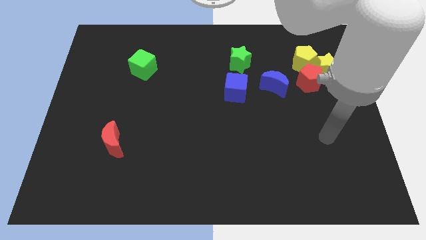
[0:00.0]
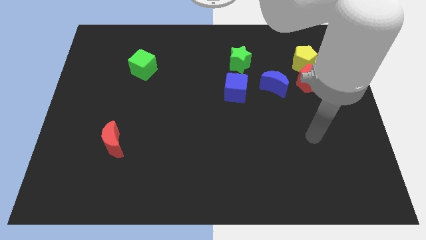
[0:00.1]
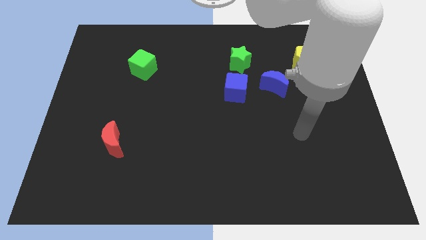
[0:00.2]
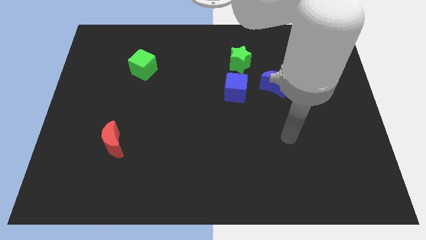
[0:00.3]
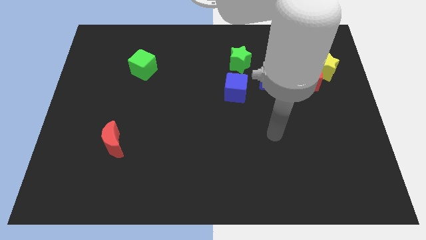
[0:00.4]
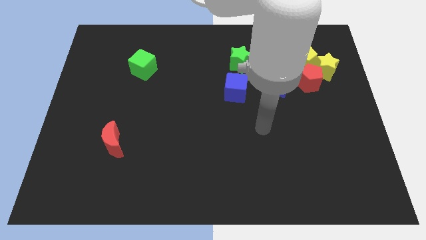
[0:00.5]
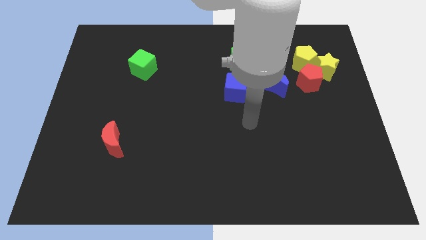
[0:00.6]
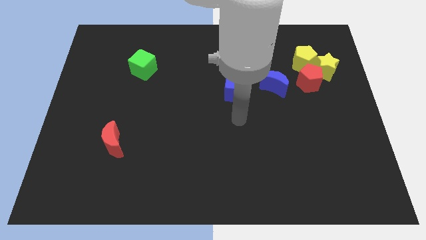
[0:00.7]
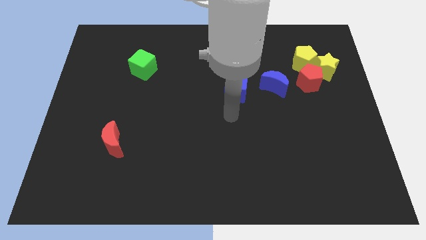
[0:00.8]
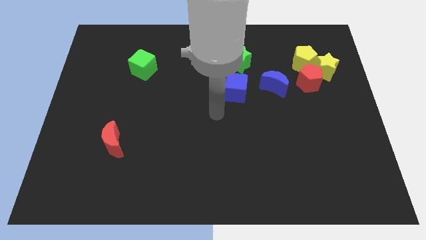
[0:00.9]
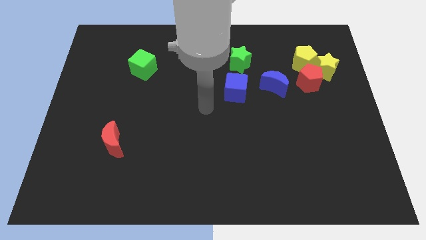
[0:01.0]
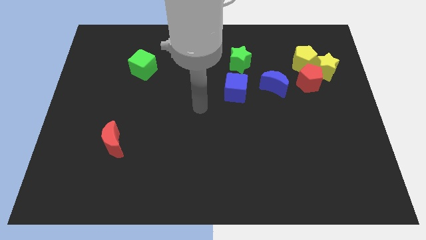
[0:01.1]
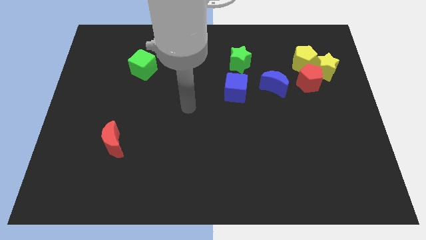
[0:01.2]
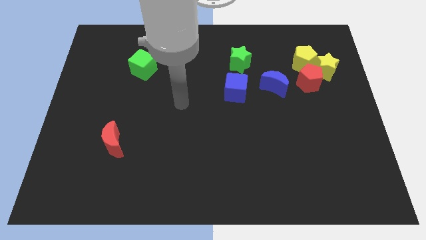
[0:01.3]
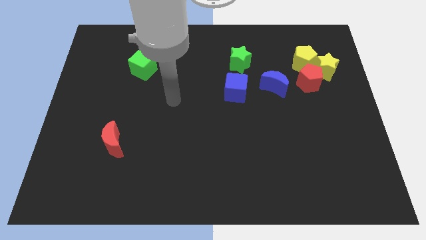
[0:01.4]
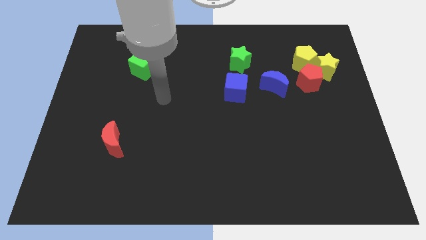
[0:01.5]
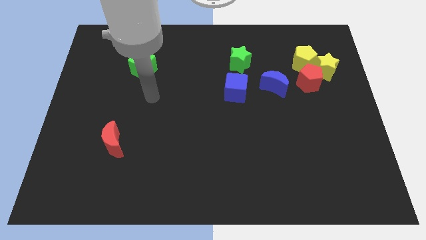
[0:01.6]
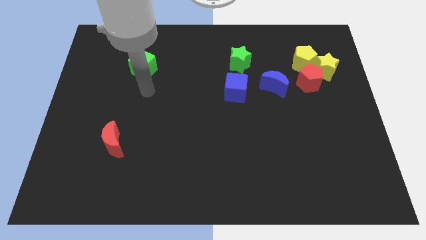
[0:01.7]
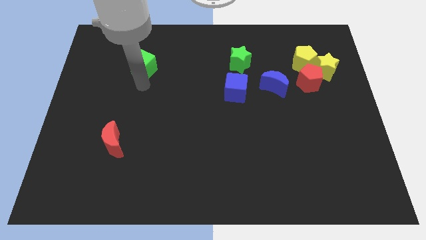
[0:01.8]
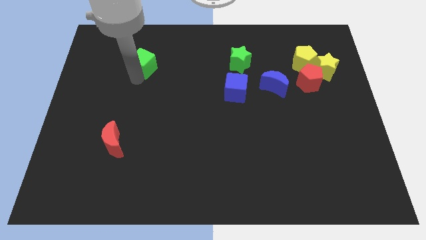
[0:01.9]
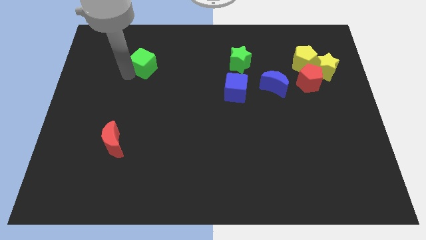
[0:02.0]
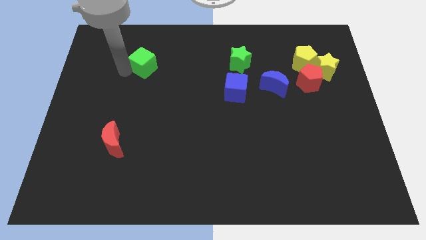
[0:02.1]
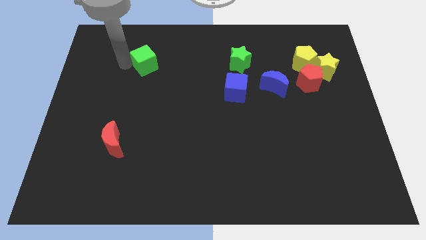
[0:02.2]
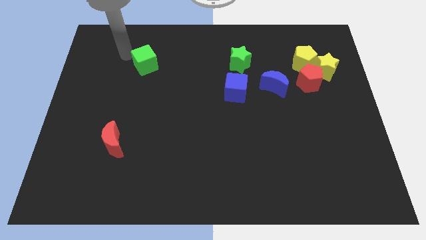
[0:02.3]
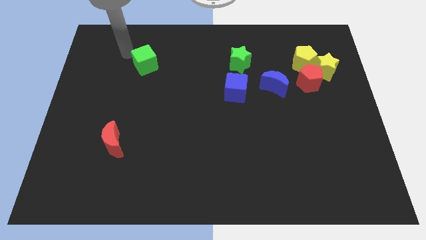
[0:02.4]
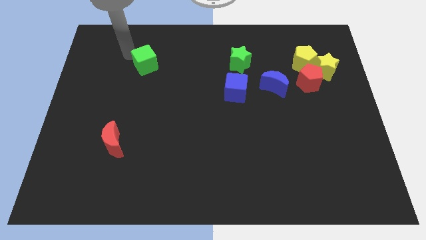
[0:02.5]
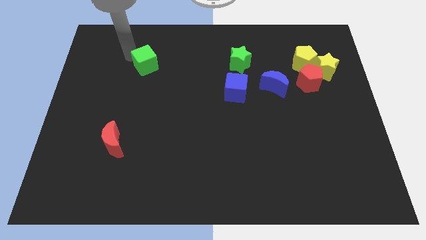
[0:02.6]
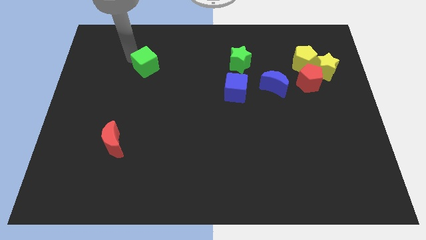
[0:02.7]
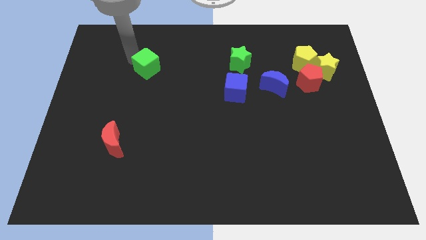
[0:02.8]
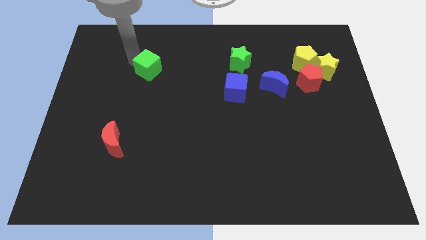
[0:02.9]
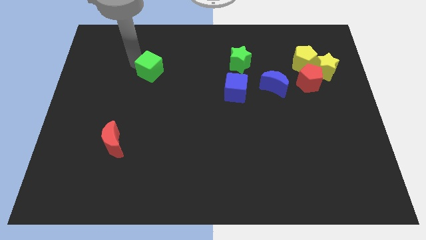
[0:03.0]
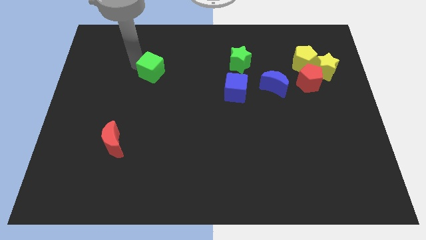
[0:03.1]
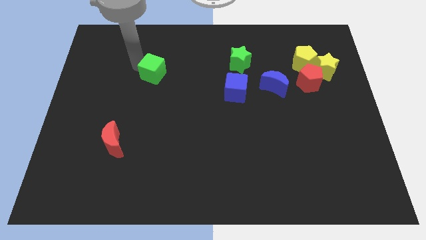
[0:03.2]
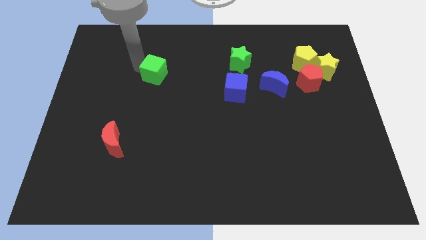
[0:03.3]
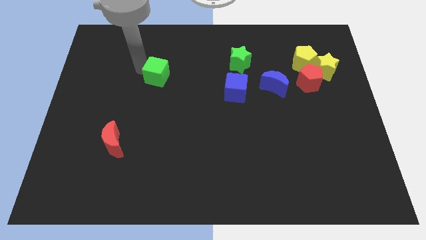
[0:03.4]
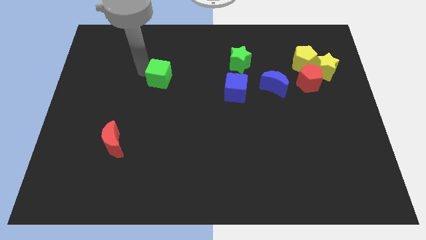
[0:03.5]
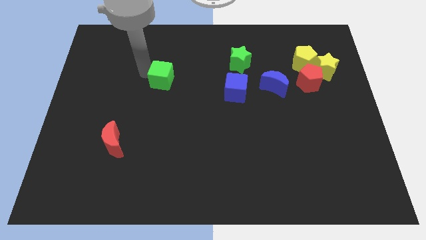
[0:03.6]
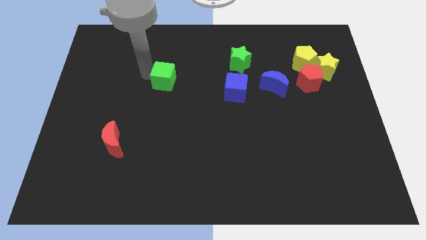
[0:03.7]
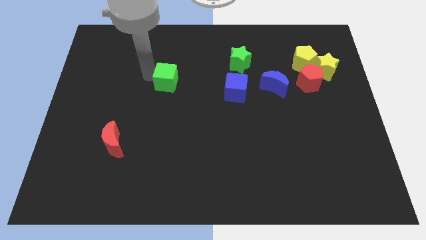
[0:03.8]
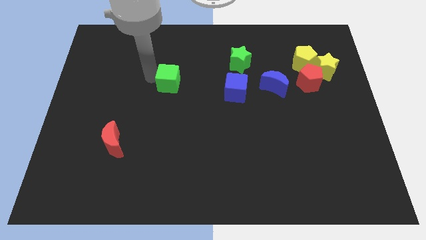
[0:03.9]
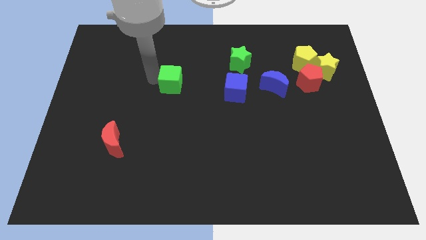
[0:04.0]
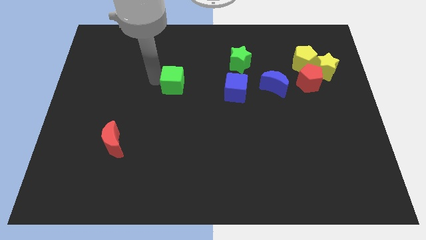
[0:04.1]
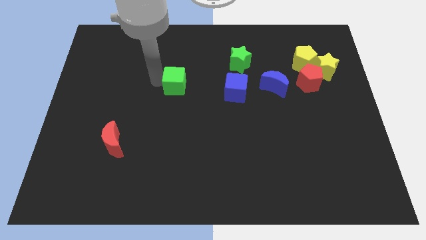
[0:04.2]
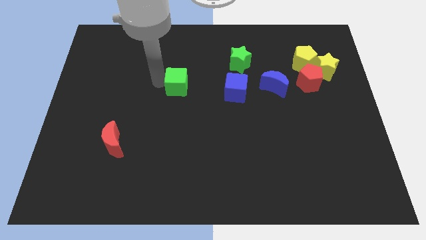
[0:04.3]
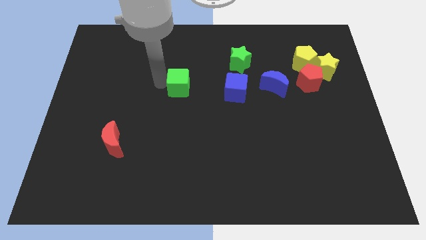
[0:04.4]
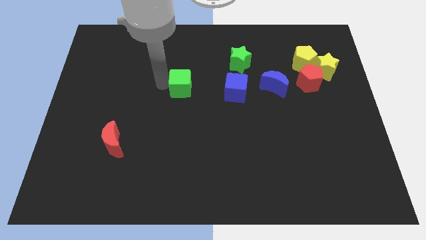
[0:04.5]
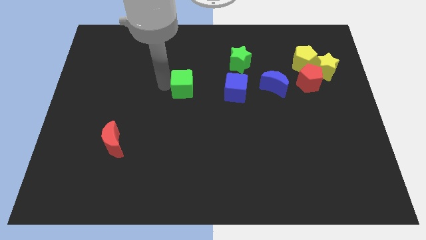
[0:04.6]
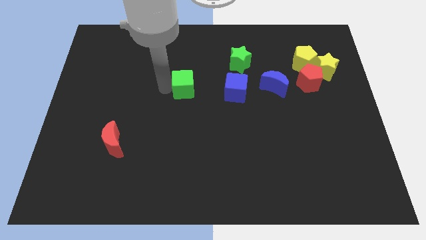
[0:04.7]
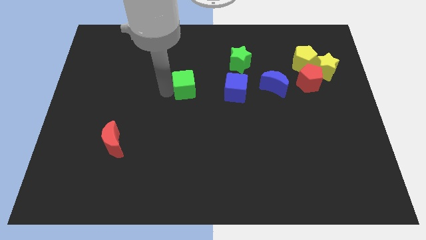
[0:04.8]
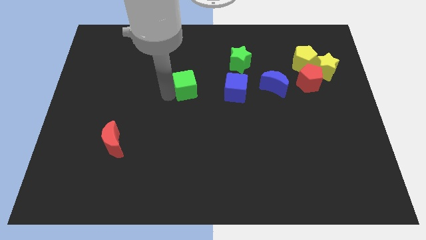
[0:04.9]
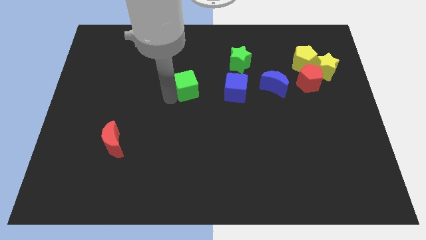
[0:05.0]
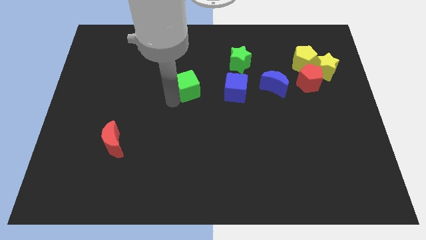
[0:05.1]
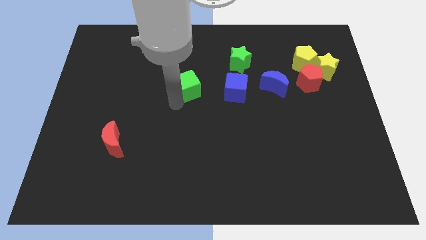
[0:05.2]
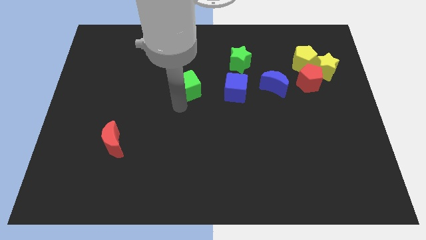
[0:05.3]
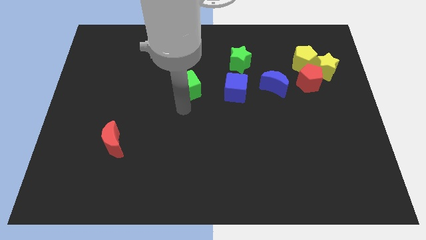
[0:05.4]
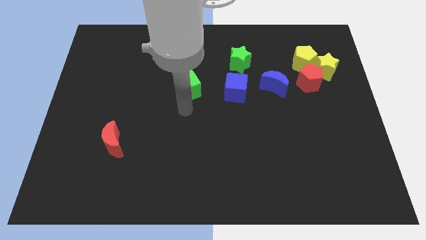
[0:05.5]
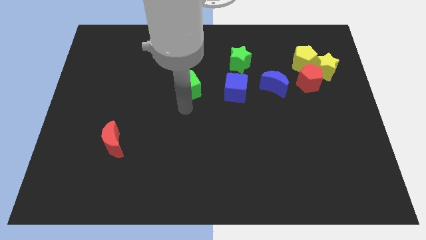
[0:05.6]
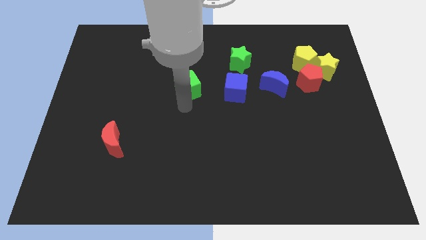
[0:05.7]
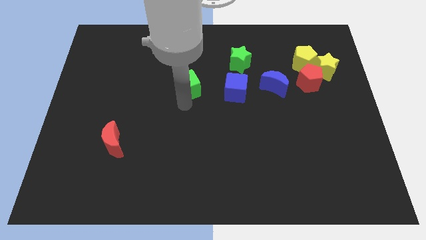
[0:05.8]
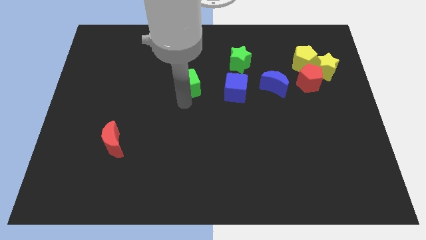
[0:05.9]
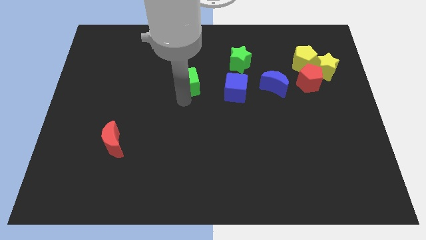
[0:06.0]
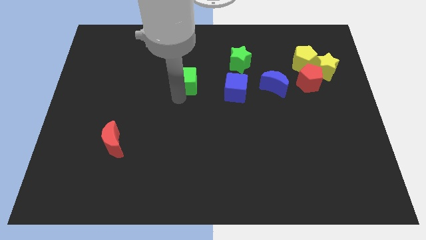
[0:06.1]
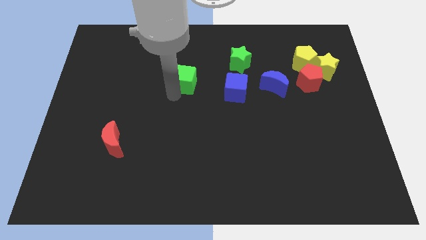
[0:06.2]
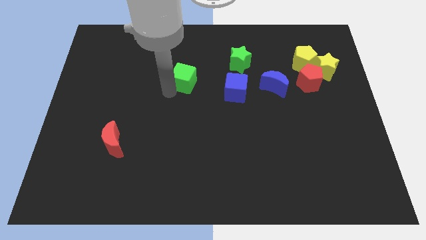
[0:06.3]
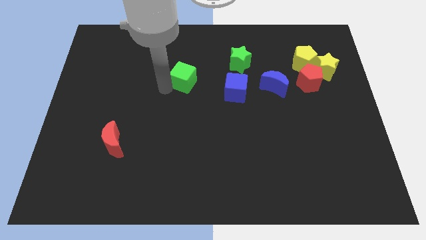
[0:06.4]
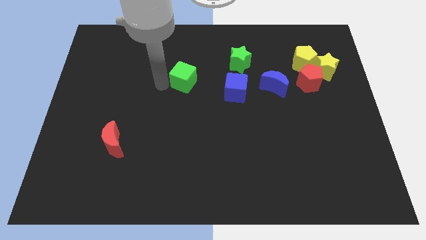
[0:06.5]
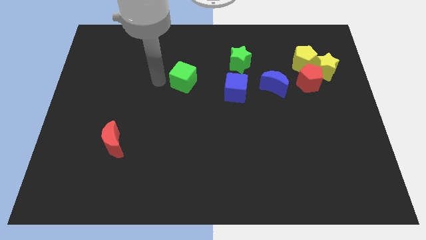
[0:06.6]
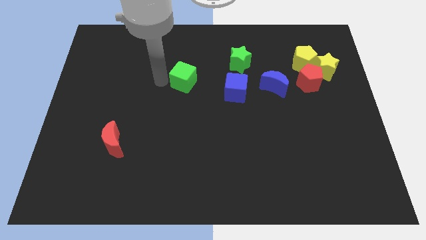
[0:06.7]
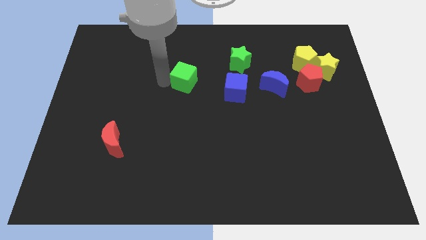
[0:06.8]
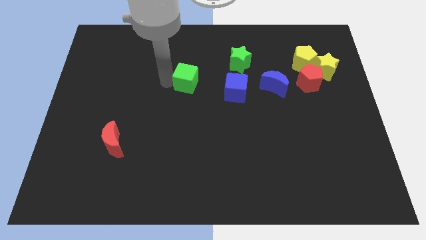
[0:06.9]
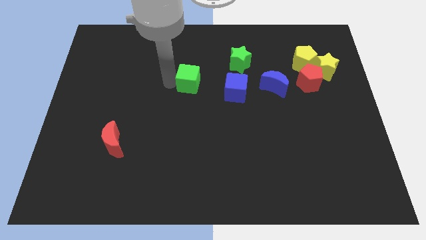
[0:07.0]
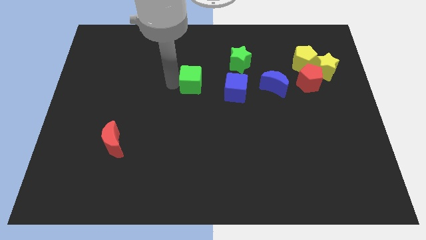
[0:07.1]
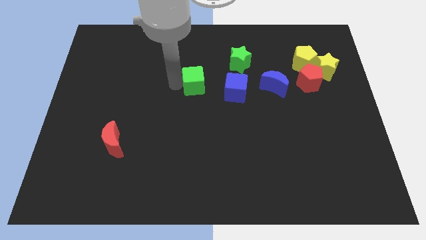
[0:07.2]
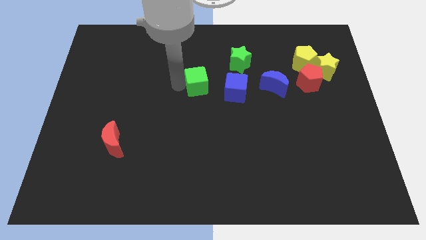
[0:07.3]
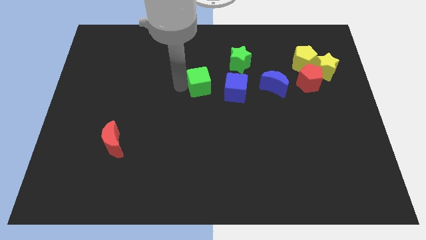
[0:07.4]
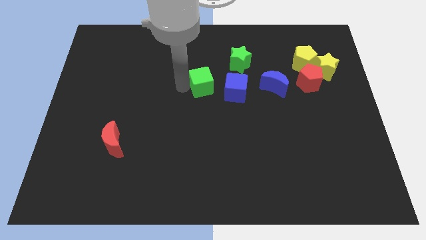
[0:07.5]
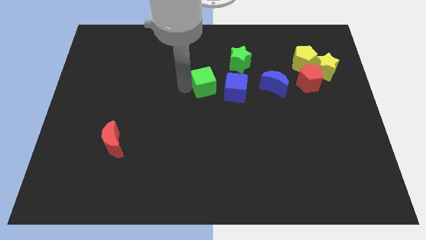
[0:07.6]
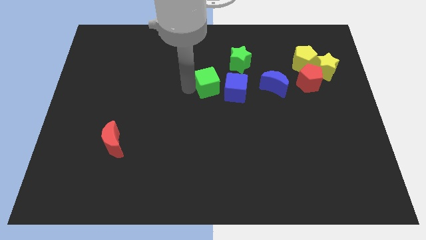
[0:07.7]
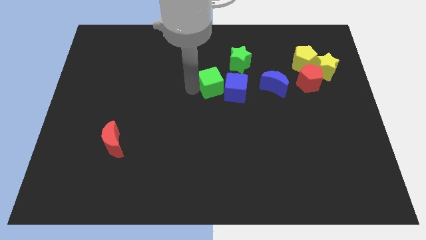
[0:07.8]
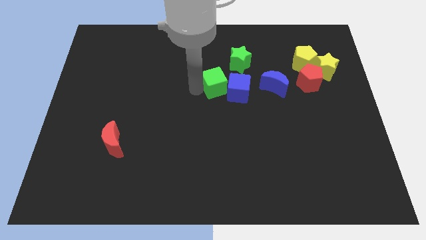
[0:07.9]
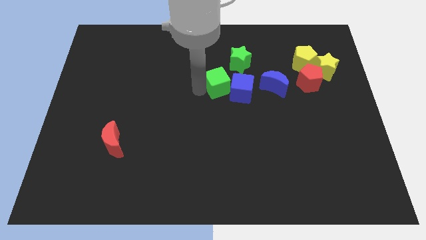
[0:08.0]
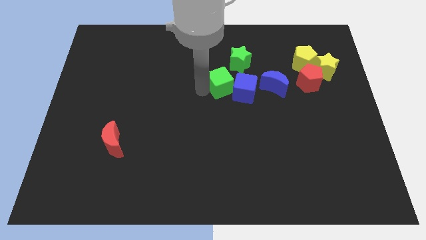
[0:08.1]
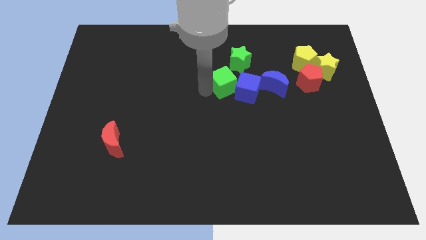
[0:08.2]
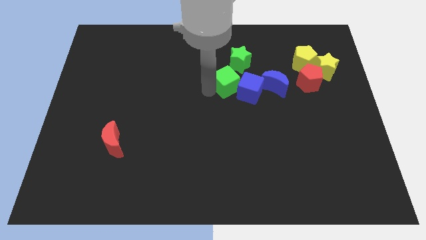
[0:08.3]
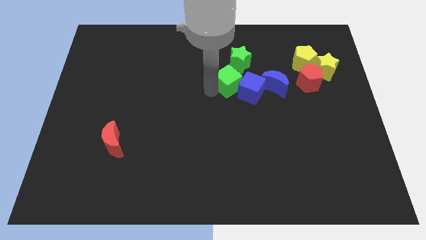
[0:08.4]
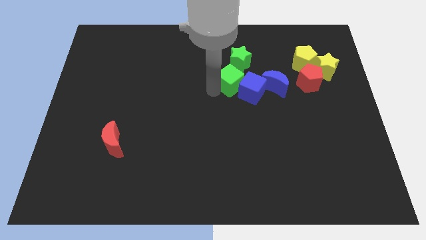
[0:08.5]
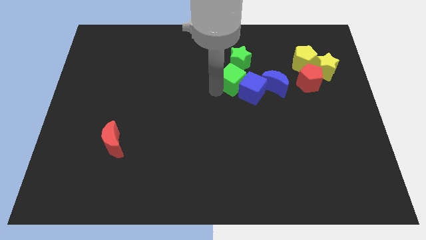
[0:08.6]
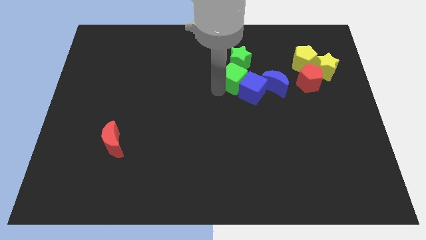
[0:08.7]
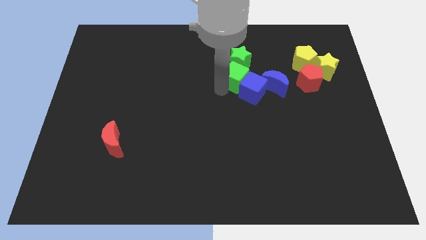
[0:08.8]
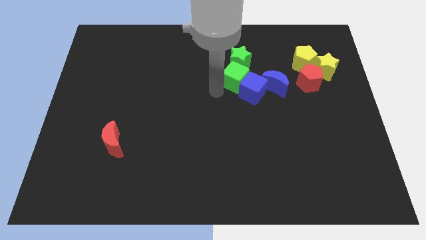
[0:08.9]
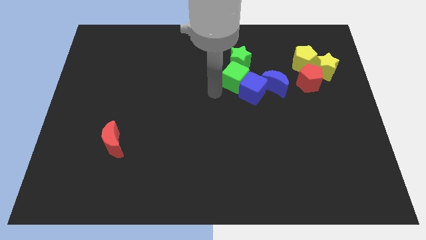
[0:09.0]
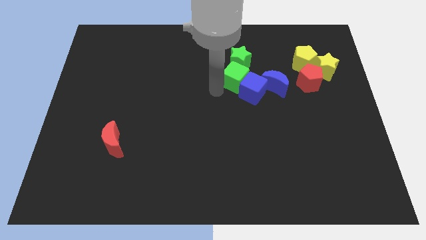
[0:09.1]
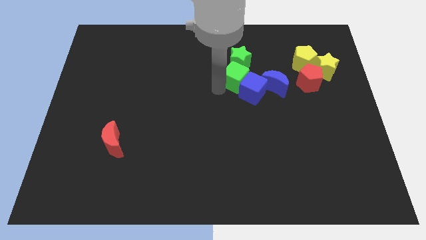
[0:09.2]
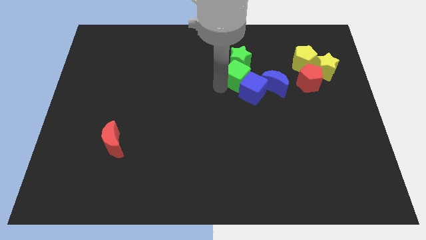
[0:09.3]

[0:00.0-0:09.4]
put the green cube to the top left side of the blue moon
